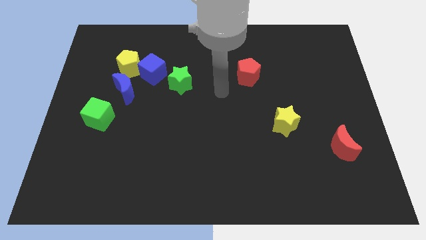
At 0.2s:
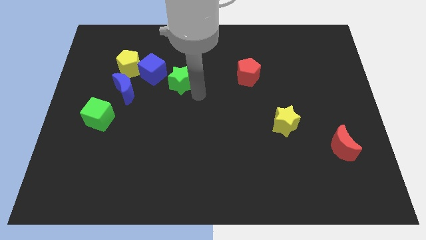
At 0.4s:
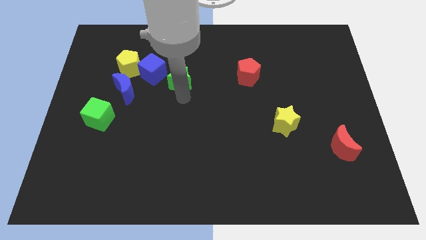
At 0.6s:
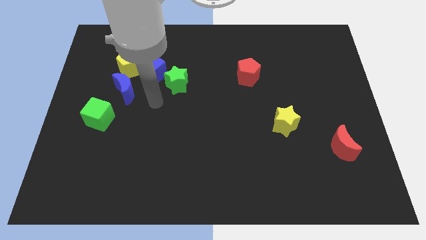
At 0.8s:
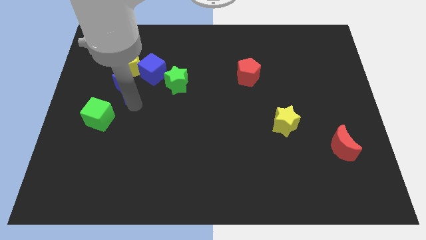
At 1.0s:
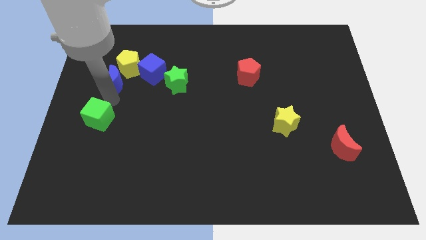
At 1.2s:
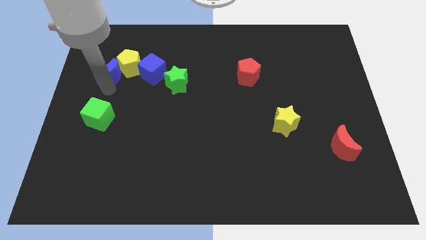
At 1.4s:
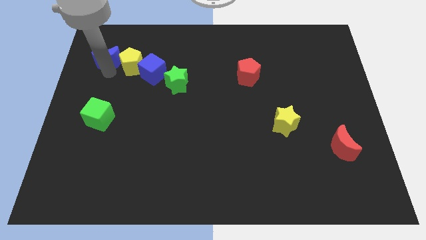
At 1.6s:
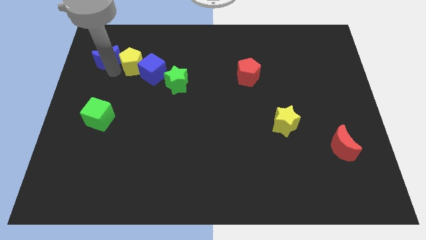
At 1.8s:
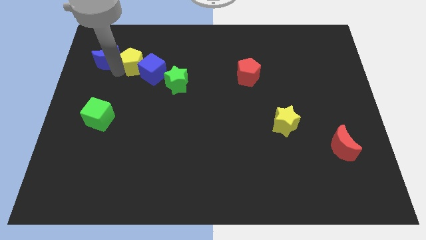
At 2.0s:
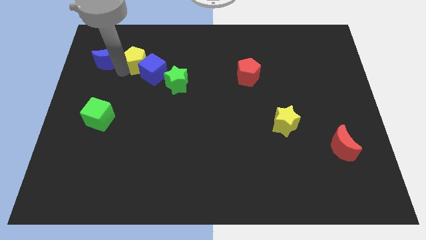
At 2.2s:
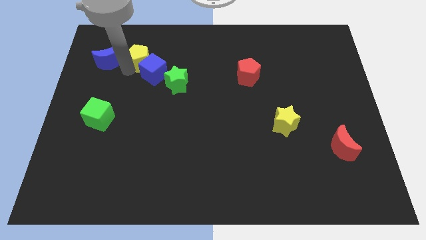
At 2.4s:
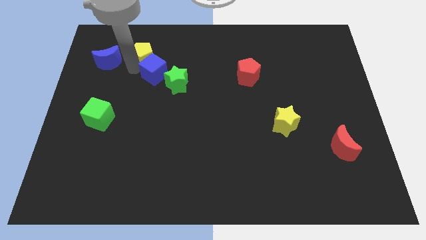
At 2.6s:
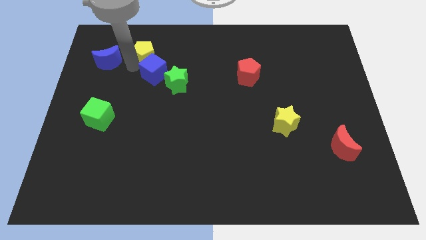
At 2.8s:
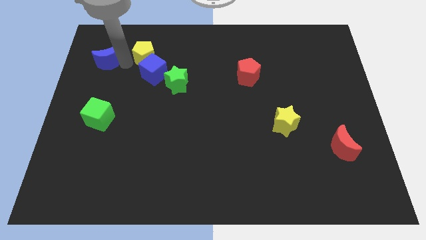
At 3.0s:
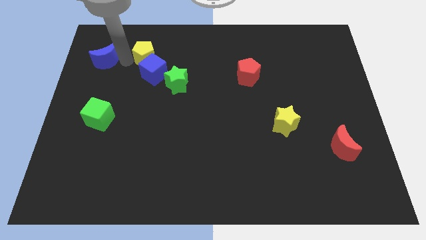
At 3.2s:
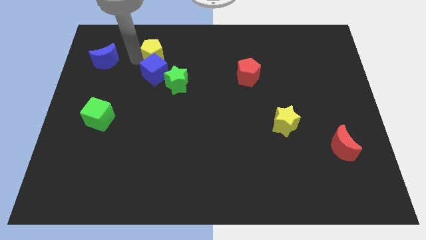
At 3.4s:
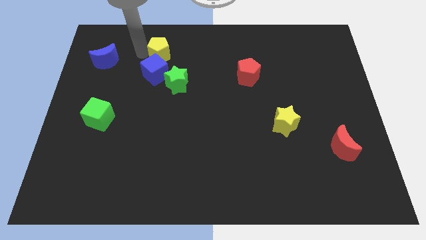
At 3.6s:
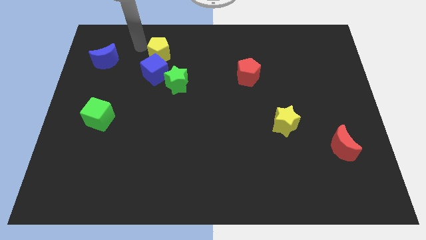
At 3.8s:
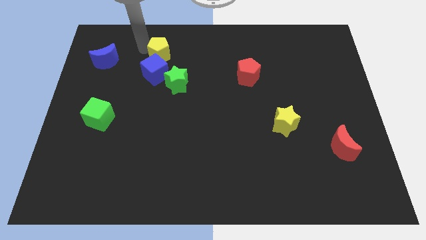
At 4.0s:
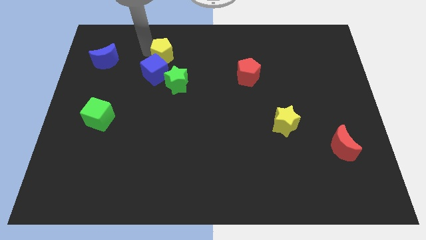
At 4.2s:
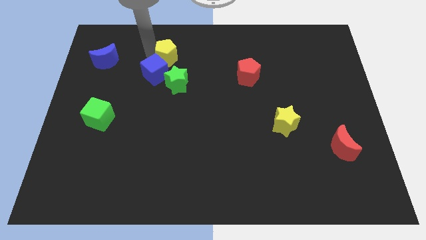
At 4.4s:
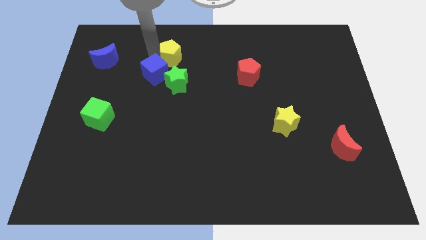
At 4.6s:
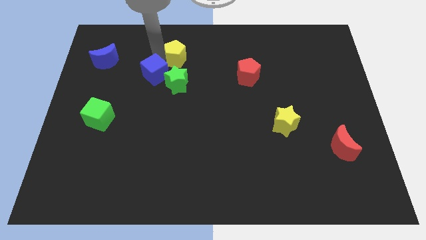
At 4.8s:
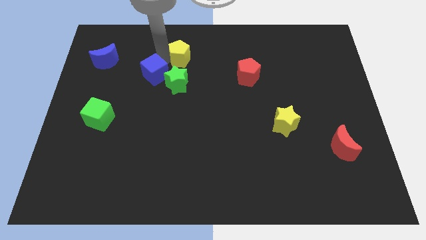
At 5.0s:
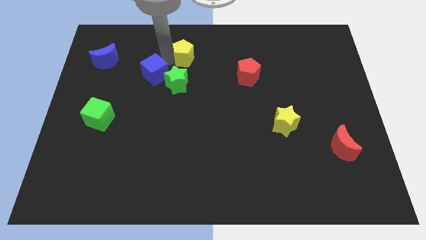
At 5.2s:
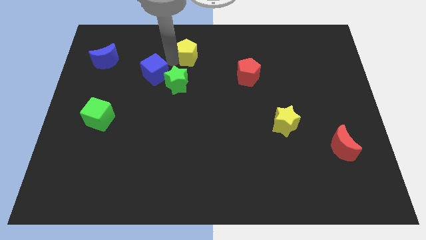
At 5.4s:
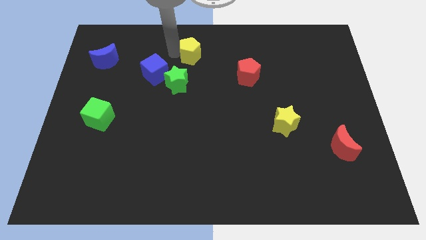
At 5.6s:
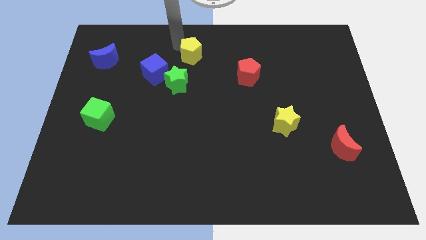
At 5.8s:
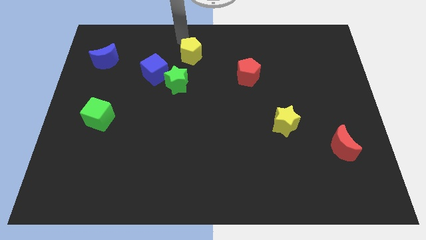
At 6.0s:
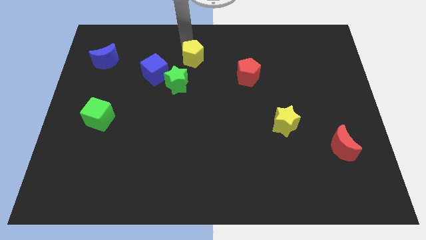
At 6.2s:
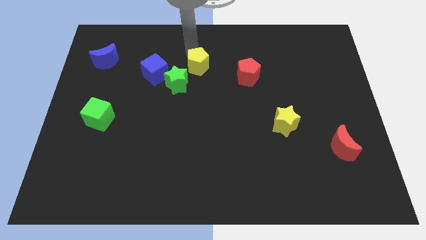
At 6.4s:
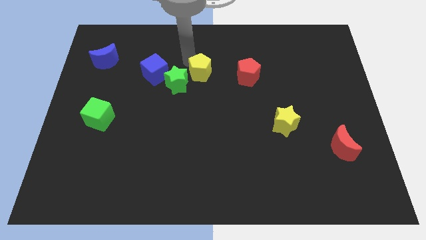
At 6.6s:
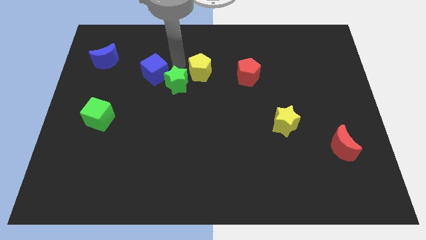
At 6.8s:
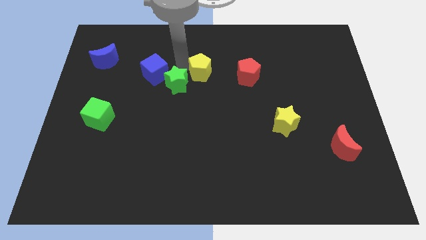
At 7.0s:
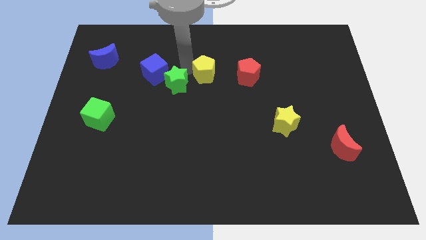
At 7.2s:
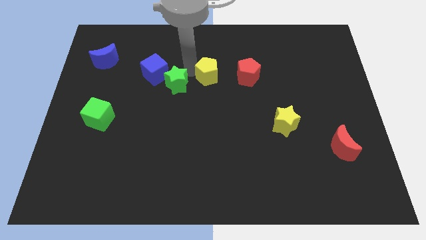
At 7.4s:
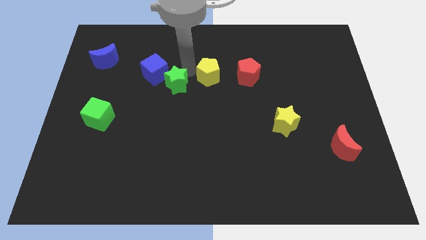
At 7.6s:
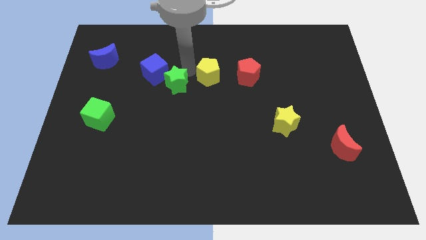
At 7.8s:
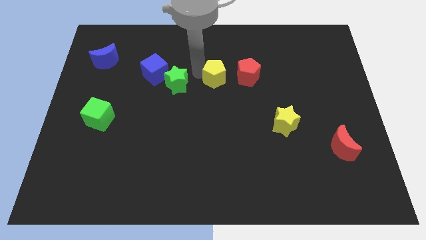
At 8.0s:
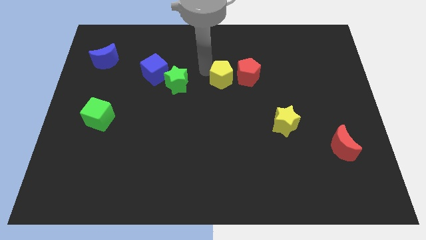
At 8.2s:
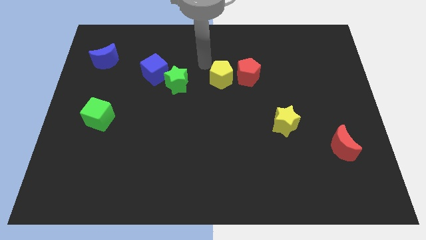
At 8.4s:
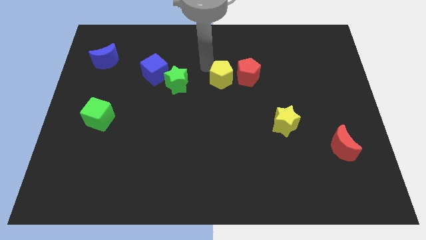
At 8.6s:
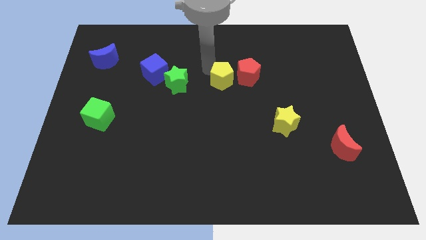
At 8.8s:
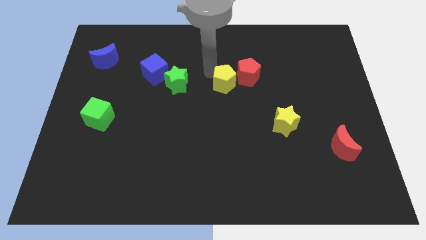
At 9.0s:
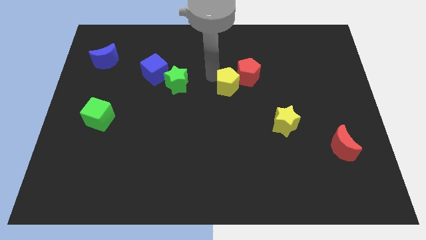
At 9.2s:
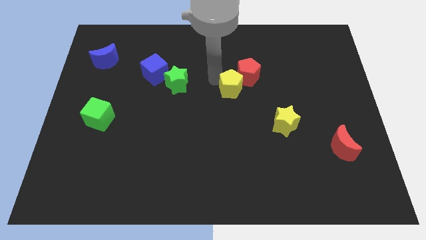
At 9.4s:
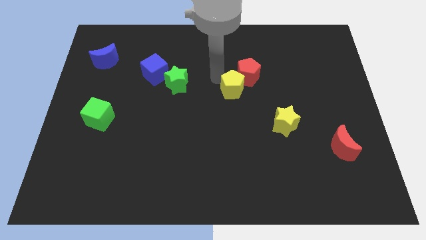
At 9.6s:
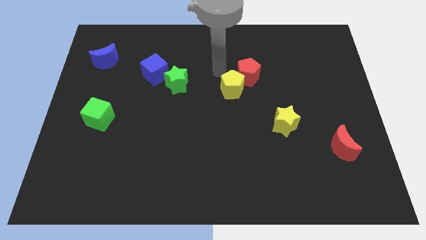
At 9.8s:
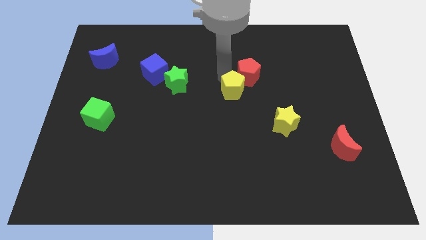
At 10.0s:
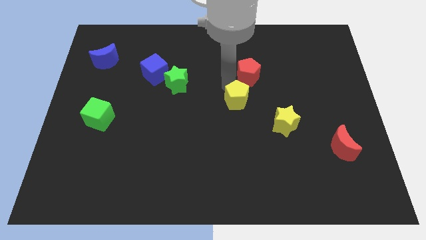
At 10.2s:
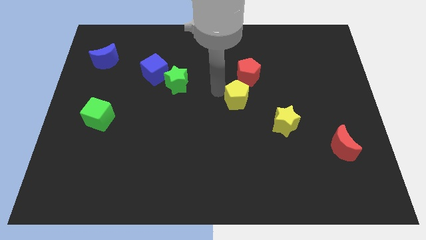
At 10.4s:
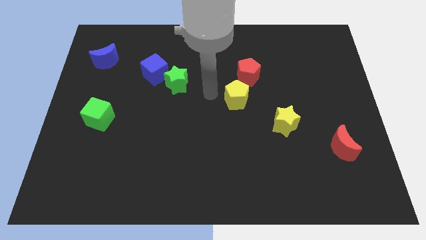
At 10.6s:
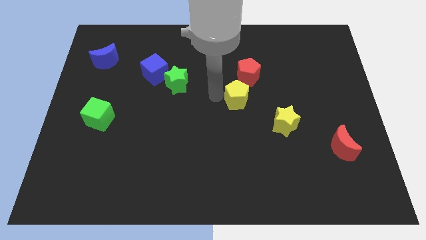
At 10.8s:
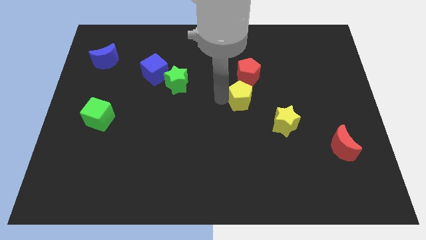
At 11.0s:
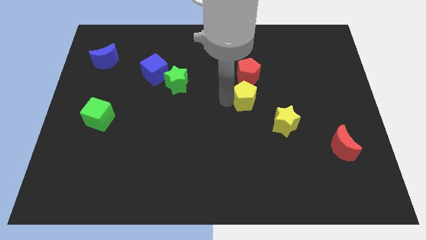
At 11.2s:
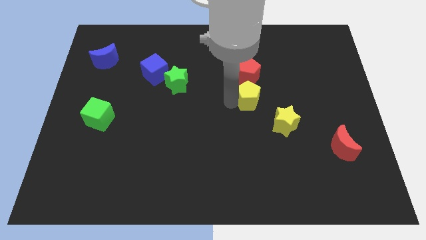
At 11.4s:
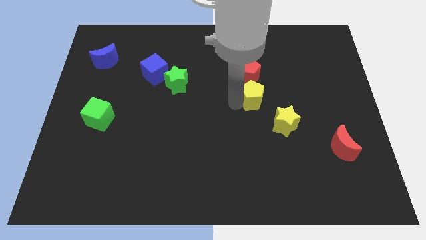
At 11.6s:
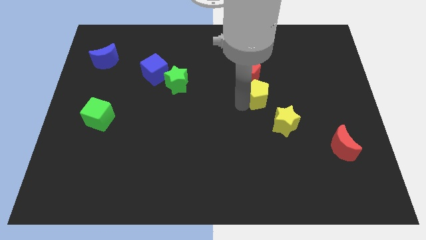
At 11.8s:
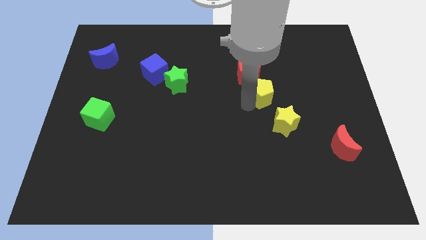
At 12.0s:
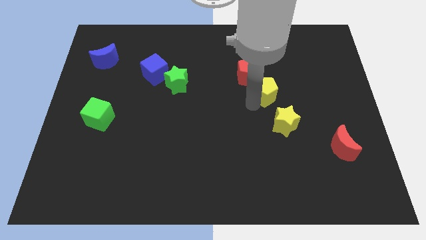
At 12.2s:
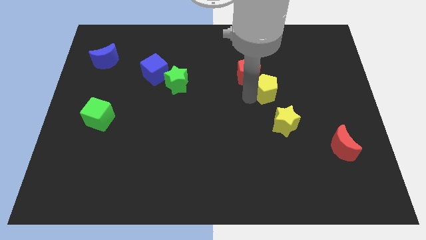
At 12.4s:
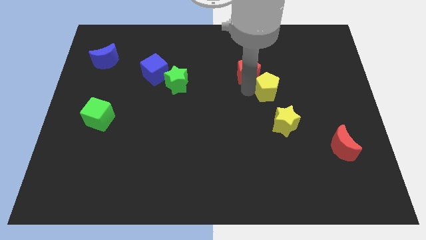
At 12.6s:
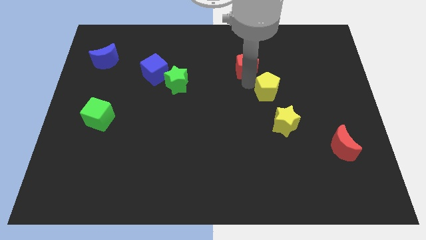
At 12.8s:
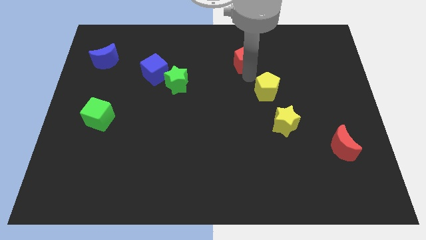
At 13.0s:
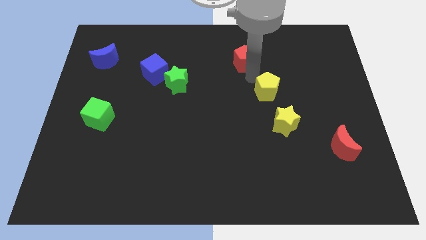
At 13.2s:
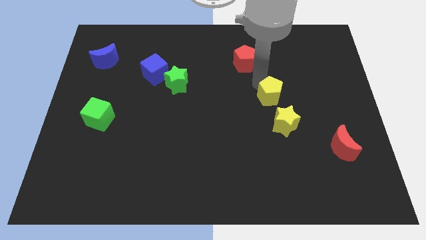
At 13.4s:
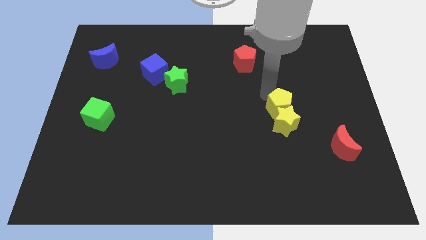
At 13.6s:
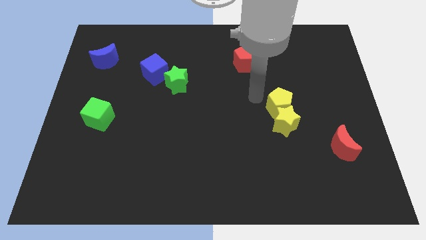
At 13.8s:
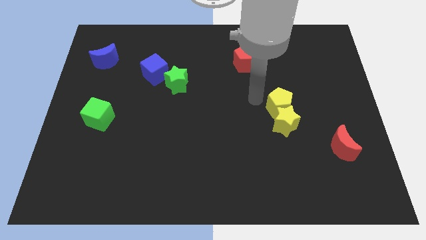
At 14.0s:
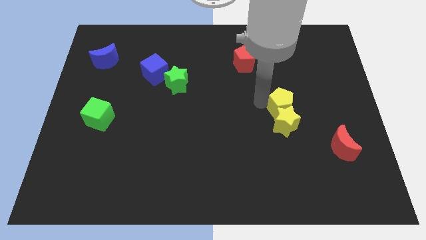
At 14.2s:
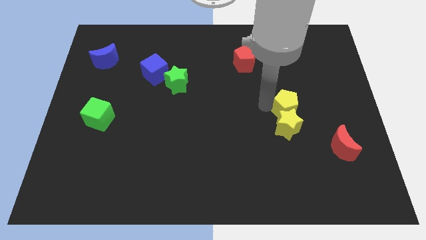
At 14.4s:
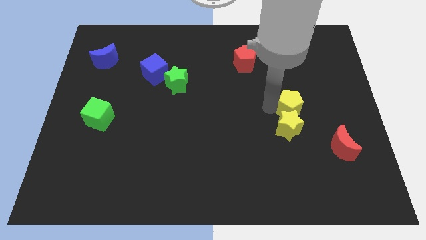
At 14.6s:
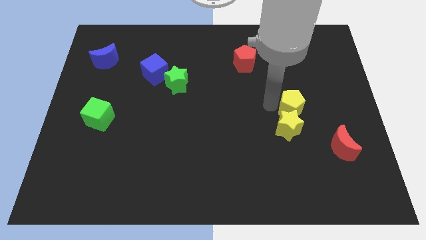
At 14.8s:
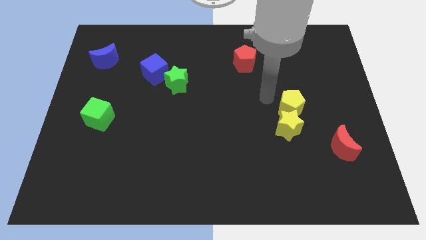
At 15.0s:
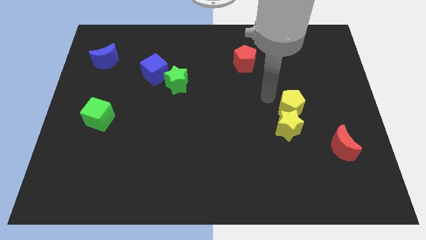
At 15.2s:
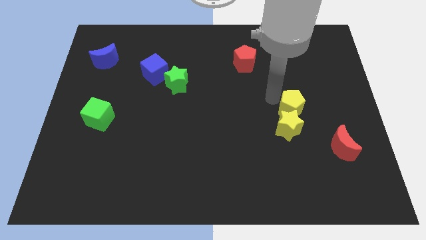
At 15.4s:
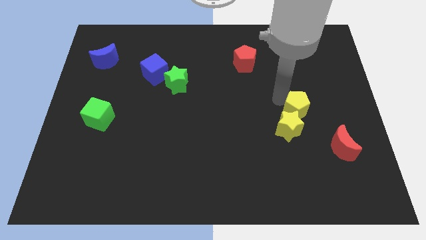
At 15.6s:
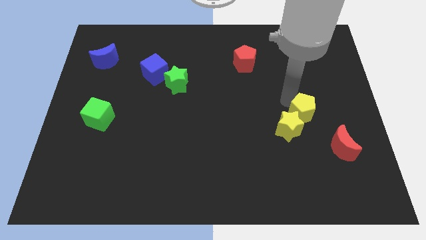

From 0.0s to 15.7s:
push the yellow pentagon to the right side of the yellow star
